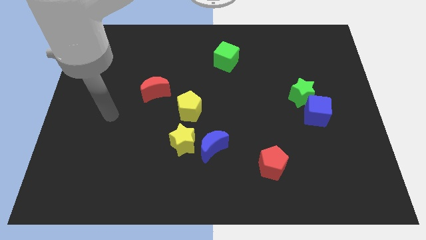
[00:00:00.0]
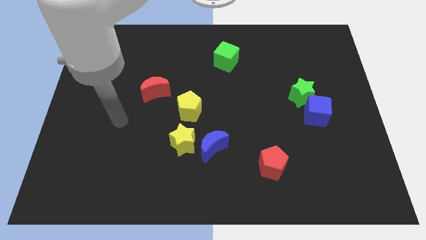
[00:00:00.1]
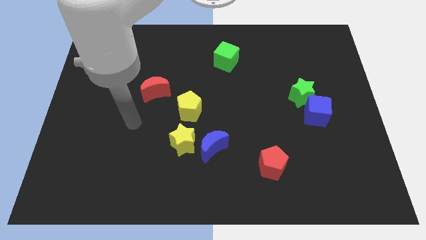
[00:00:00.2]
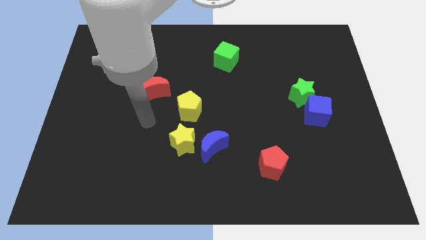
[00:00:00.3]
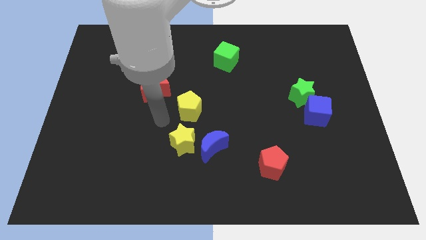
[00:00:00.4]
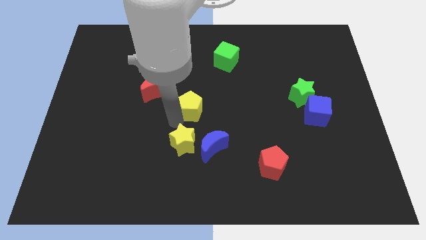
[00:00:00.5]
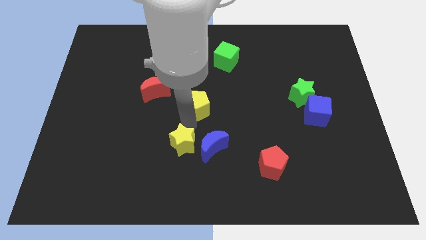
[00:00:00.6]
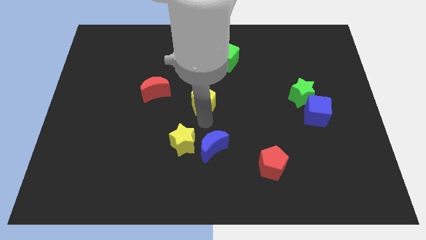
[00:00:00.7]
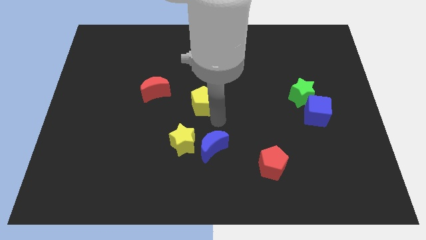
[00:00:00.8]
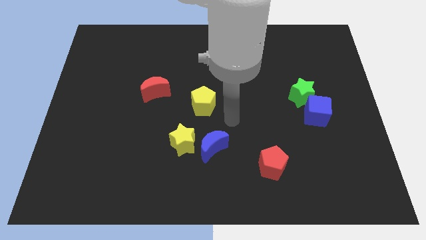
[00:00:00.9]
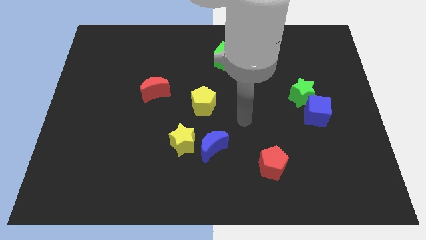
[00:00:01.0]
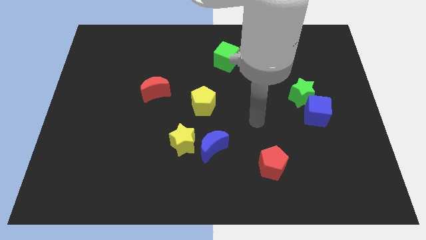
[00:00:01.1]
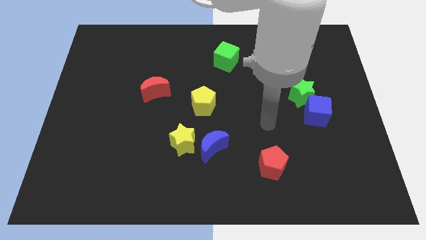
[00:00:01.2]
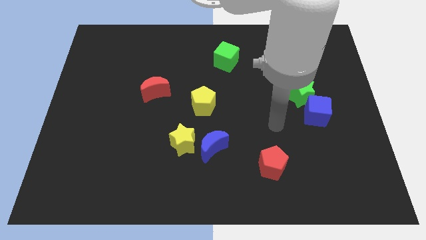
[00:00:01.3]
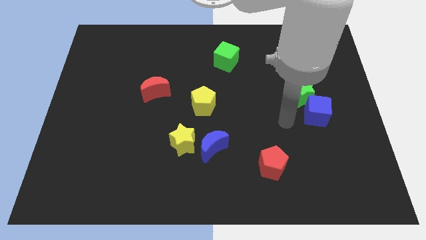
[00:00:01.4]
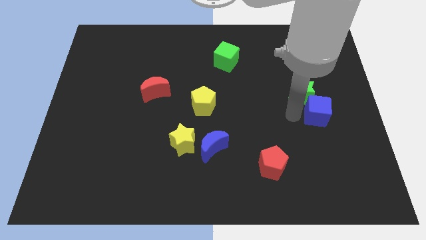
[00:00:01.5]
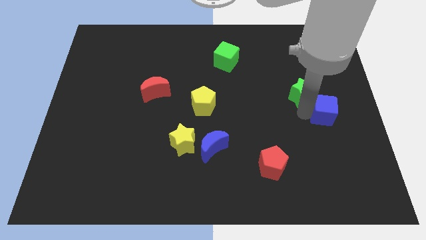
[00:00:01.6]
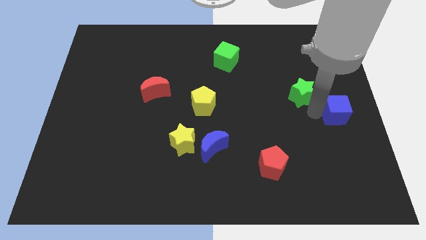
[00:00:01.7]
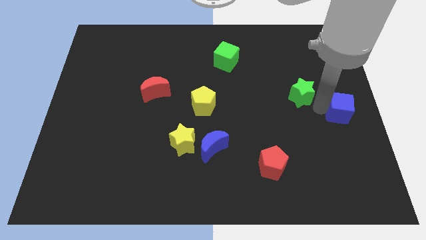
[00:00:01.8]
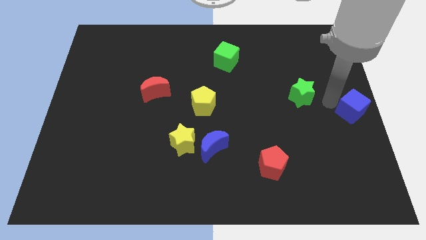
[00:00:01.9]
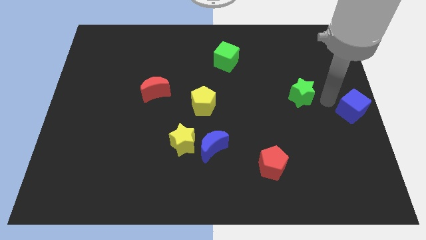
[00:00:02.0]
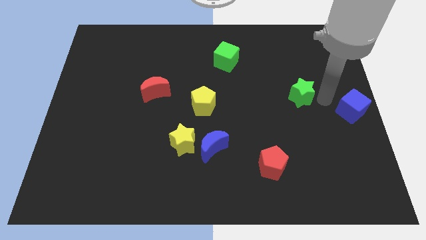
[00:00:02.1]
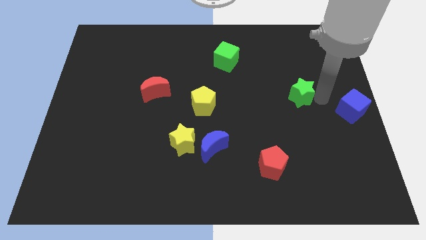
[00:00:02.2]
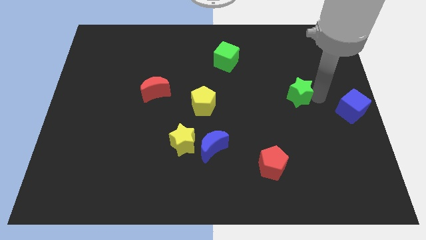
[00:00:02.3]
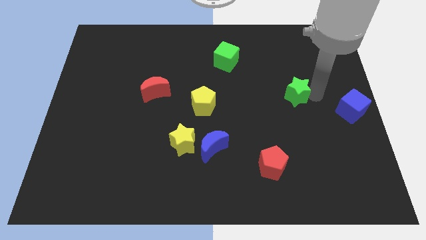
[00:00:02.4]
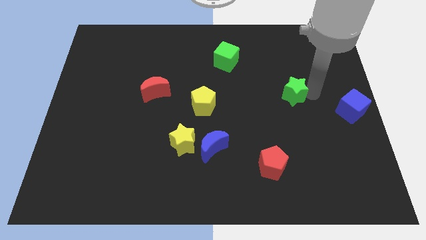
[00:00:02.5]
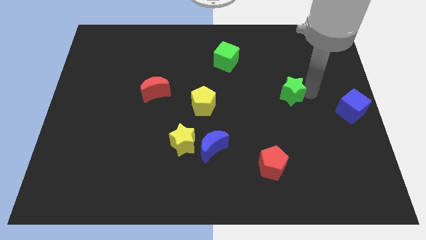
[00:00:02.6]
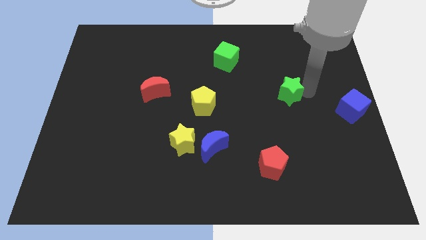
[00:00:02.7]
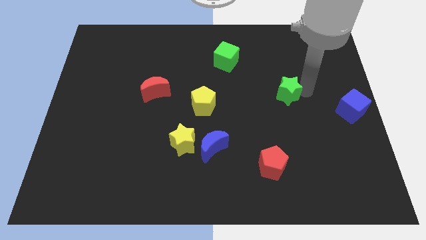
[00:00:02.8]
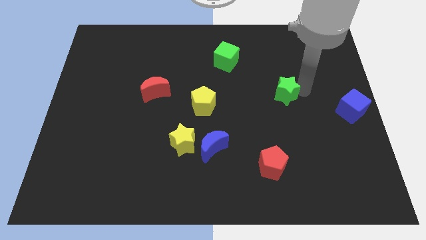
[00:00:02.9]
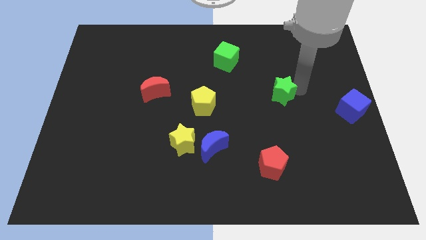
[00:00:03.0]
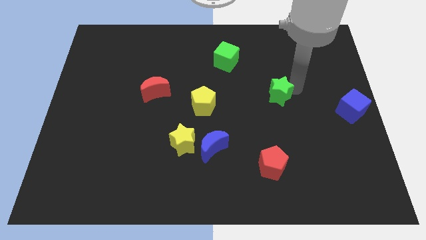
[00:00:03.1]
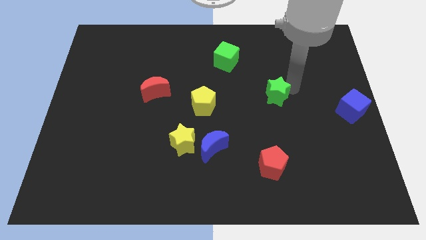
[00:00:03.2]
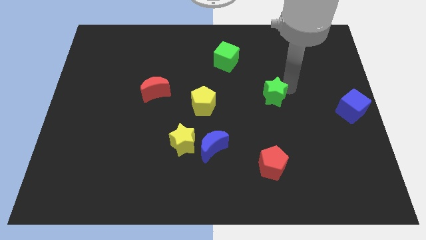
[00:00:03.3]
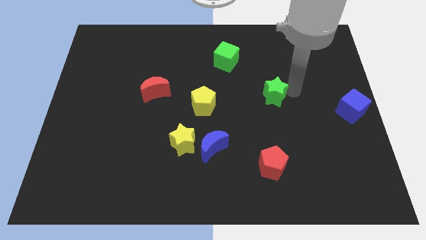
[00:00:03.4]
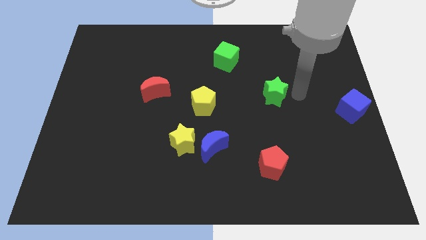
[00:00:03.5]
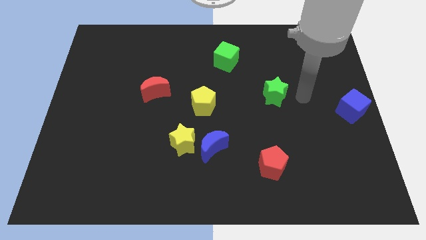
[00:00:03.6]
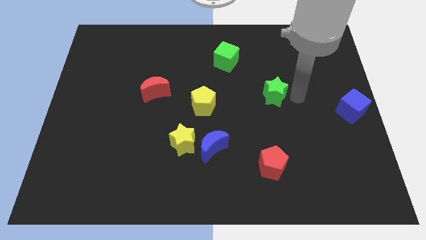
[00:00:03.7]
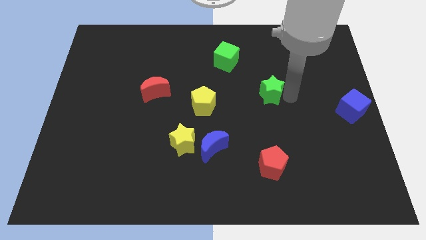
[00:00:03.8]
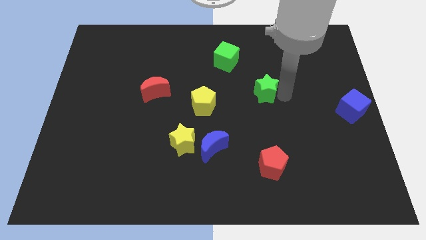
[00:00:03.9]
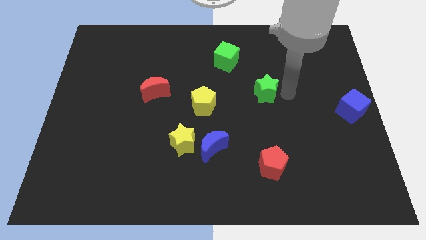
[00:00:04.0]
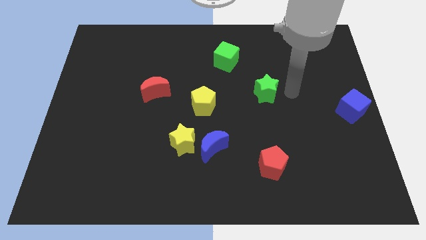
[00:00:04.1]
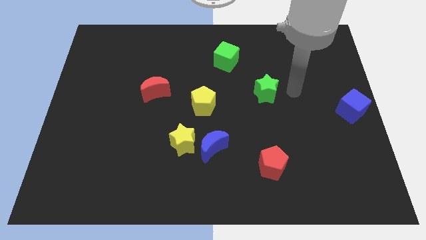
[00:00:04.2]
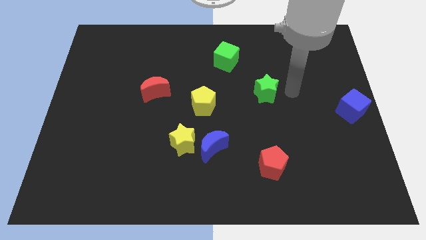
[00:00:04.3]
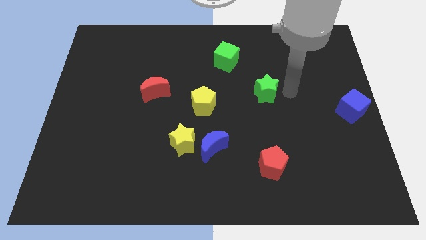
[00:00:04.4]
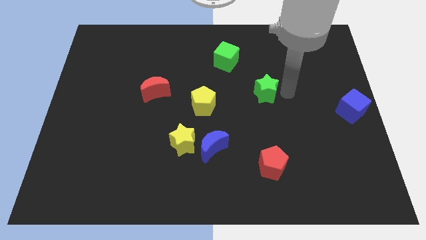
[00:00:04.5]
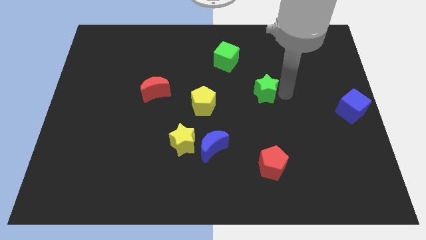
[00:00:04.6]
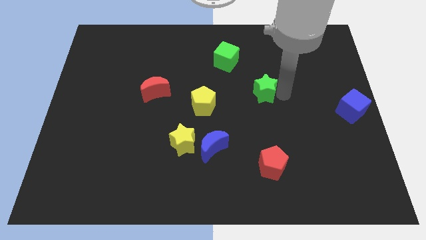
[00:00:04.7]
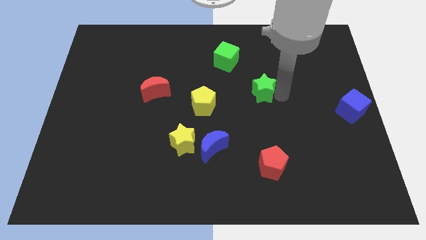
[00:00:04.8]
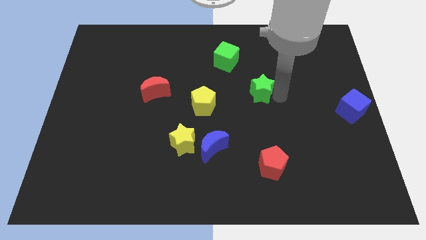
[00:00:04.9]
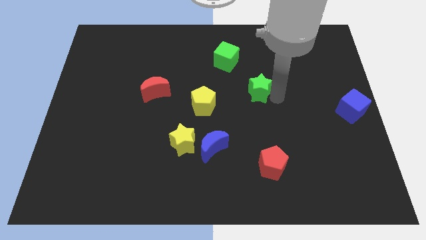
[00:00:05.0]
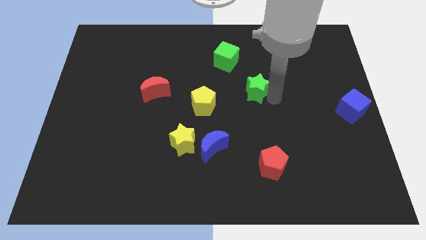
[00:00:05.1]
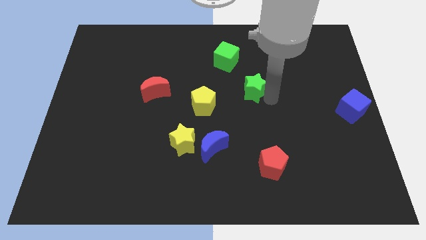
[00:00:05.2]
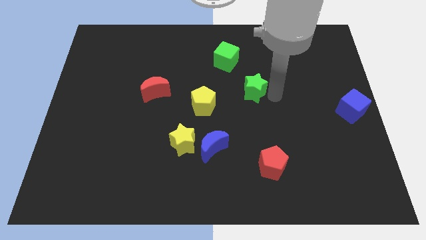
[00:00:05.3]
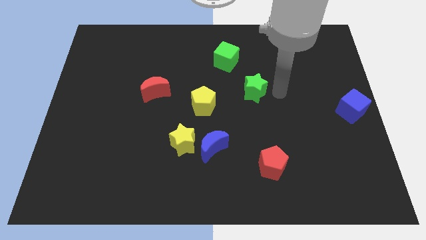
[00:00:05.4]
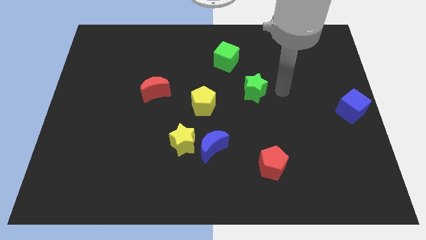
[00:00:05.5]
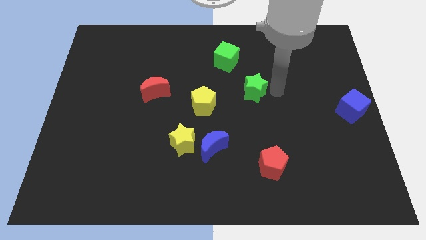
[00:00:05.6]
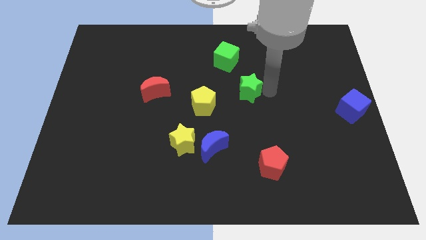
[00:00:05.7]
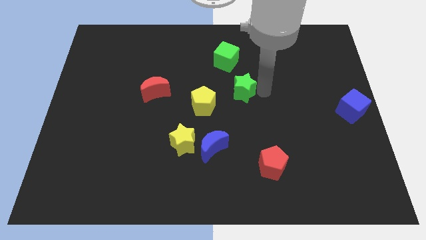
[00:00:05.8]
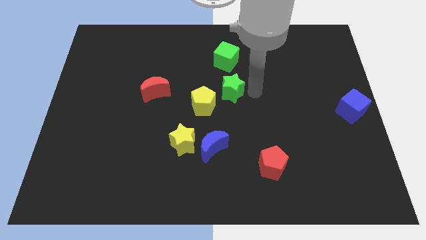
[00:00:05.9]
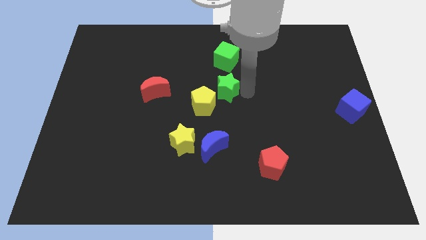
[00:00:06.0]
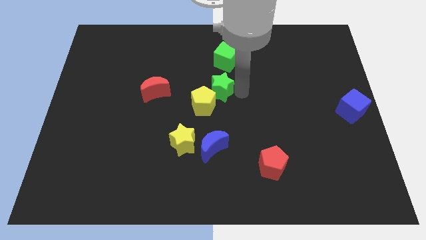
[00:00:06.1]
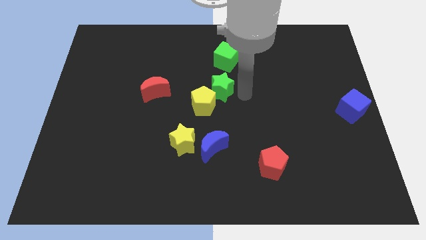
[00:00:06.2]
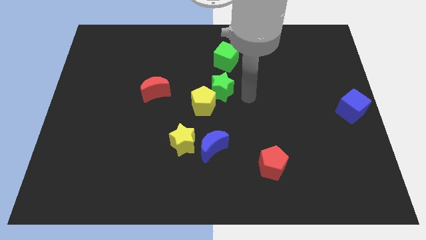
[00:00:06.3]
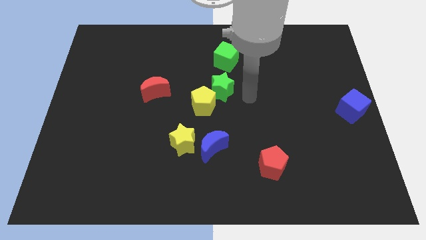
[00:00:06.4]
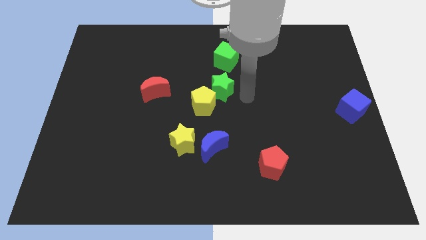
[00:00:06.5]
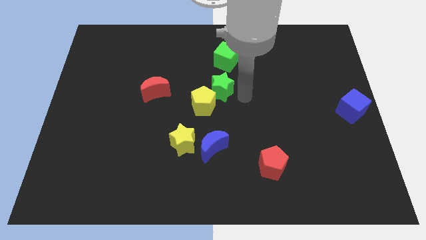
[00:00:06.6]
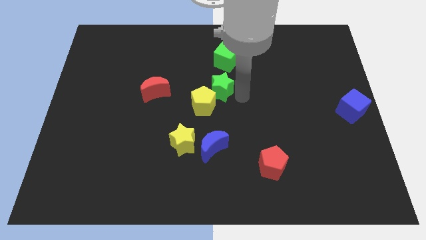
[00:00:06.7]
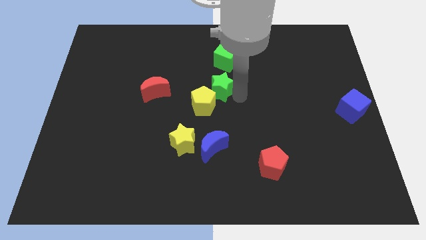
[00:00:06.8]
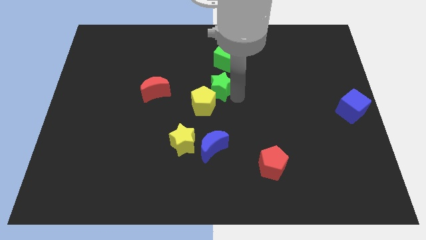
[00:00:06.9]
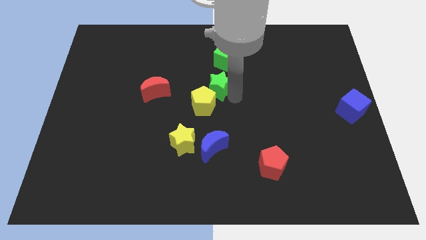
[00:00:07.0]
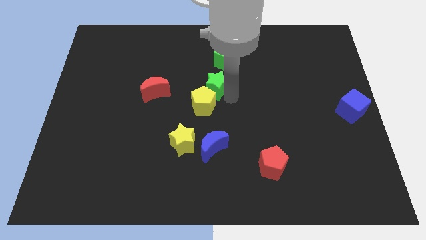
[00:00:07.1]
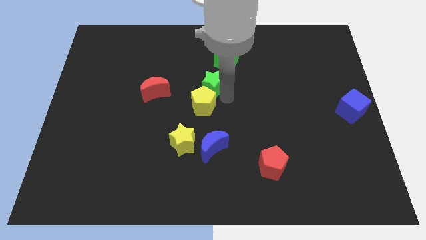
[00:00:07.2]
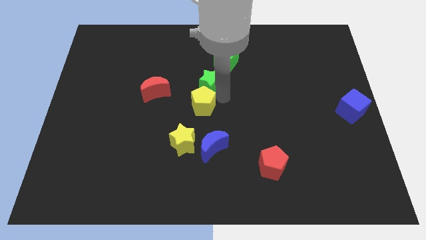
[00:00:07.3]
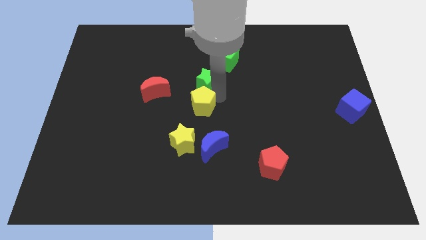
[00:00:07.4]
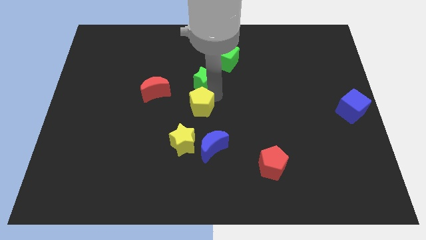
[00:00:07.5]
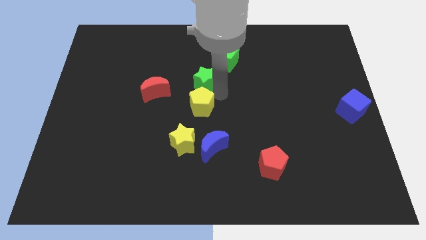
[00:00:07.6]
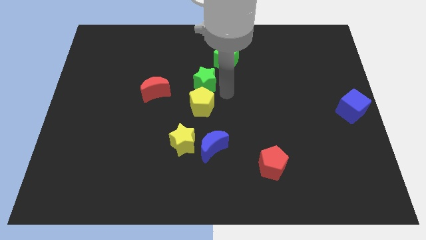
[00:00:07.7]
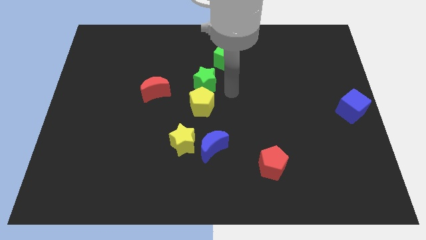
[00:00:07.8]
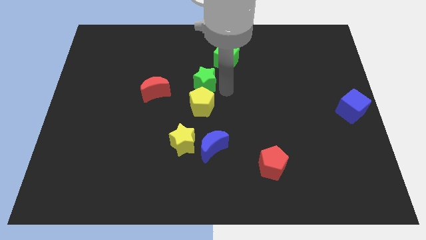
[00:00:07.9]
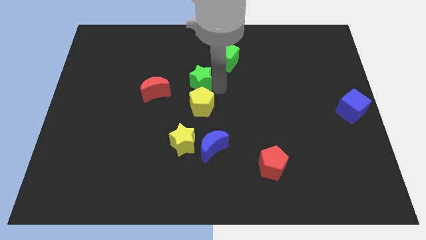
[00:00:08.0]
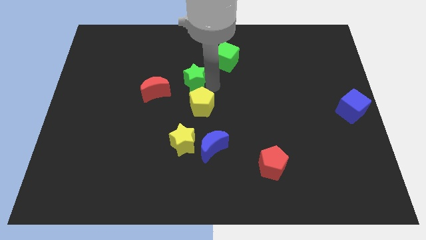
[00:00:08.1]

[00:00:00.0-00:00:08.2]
move the green star to the top right side of the red moon
